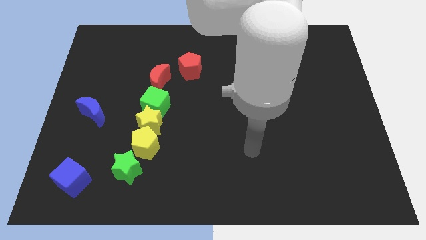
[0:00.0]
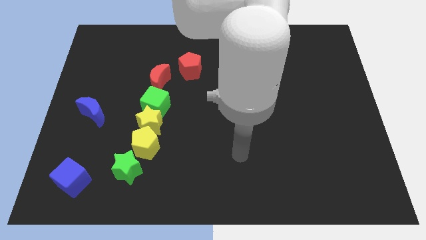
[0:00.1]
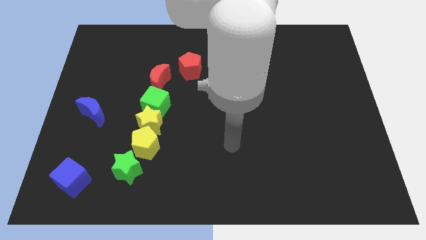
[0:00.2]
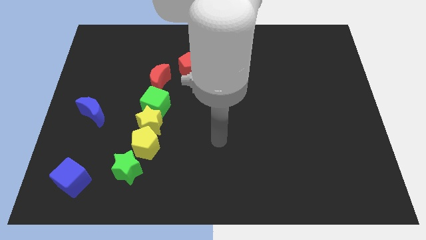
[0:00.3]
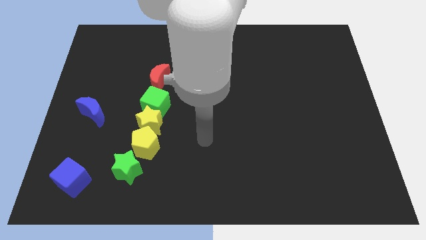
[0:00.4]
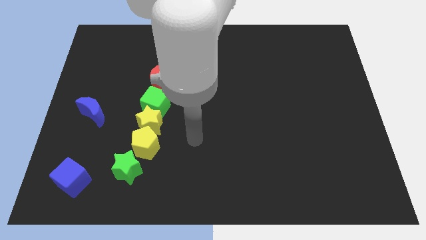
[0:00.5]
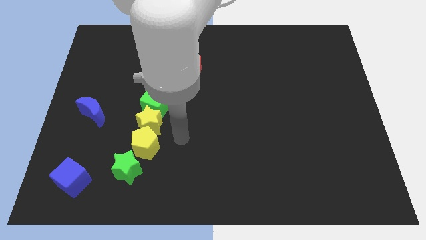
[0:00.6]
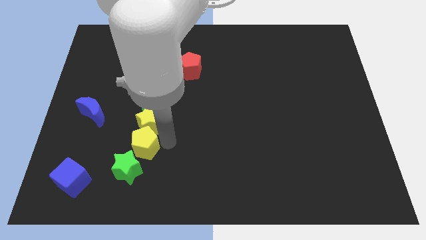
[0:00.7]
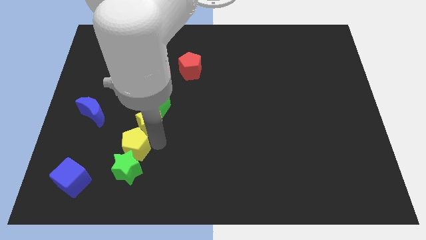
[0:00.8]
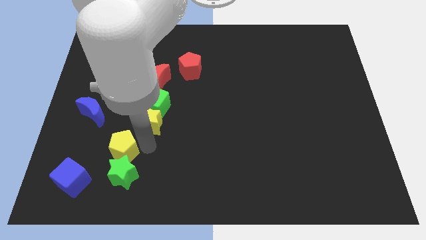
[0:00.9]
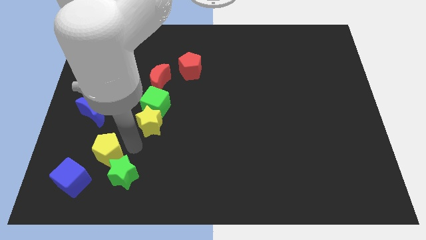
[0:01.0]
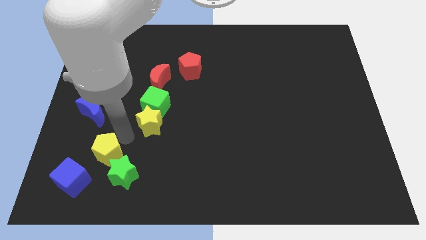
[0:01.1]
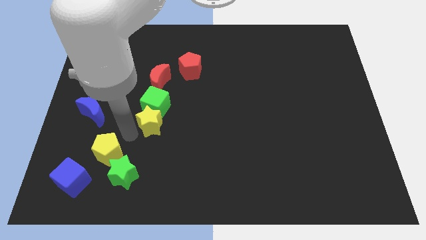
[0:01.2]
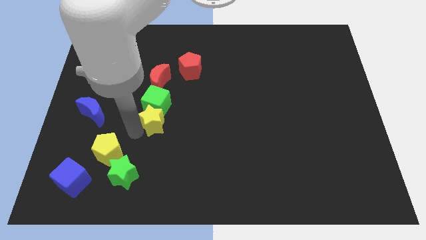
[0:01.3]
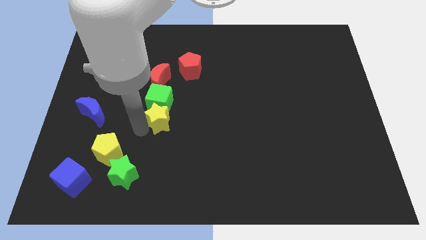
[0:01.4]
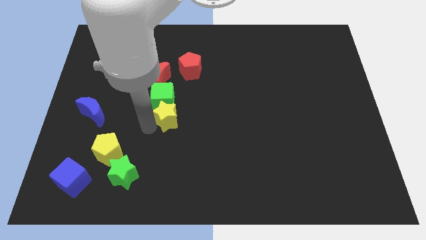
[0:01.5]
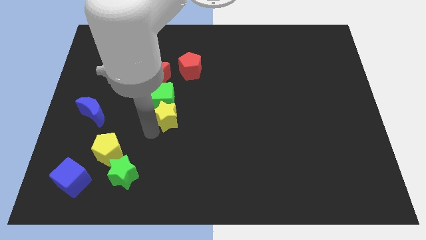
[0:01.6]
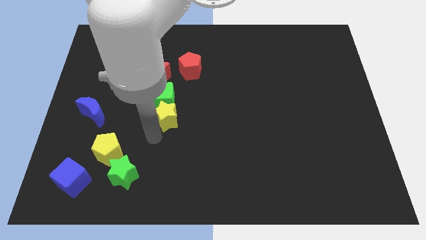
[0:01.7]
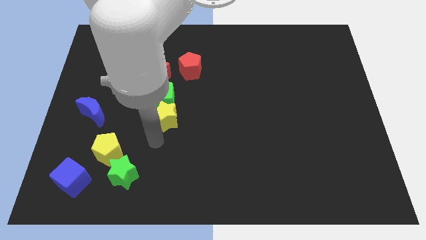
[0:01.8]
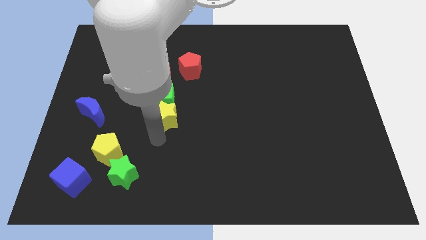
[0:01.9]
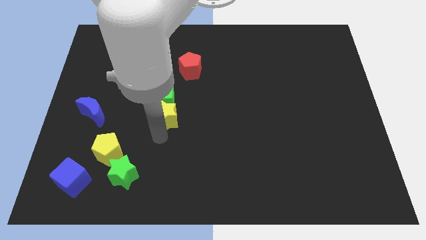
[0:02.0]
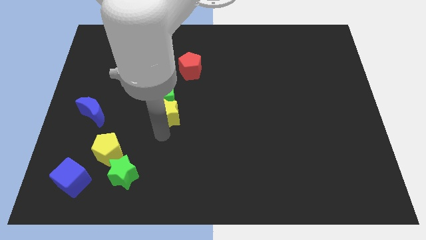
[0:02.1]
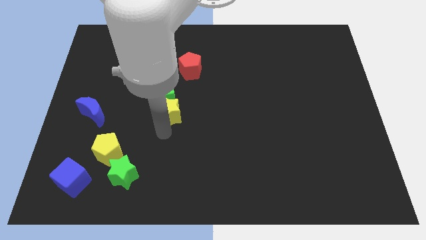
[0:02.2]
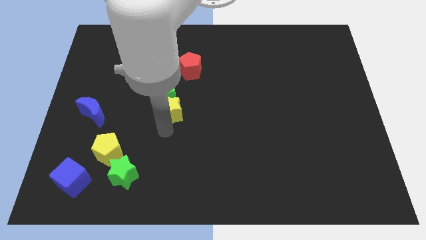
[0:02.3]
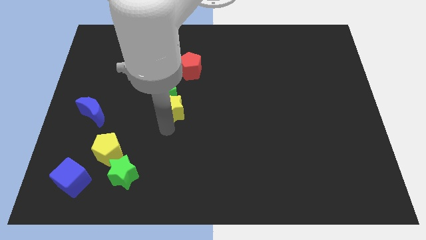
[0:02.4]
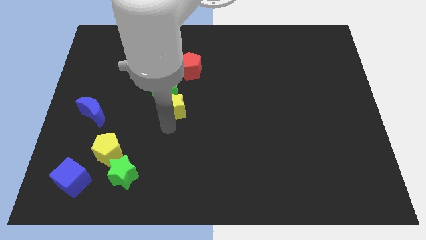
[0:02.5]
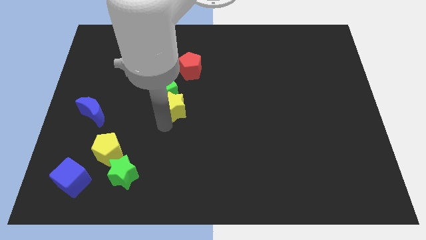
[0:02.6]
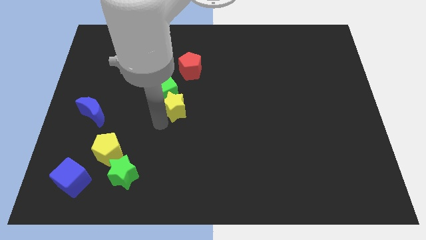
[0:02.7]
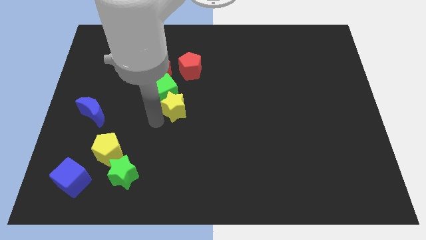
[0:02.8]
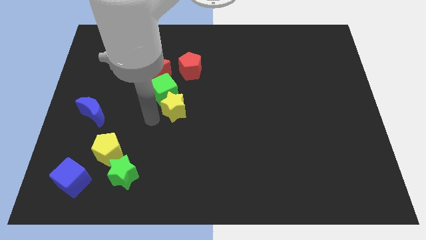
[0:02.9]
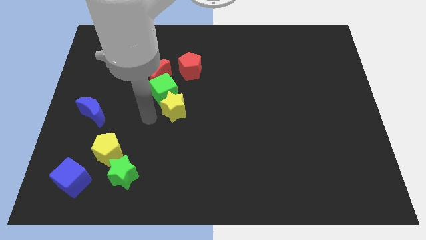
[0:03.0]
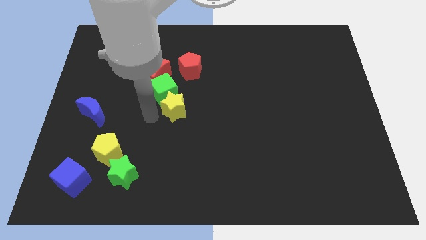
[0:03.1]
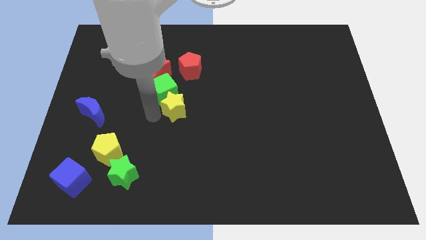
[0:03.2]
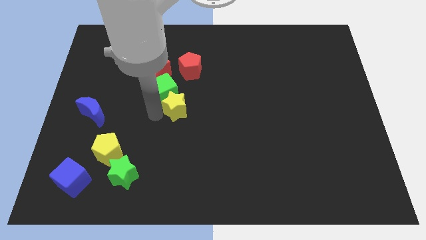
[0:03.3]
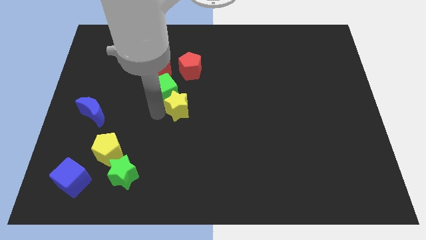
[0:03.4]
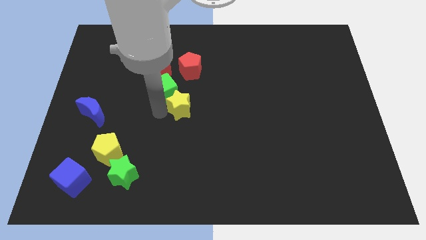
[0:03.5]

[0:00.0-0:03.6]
pull the yellow star apart from the green cube and yellow pentagon

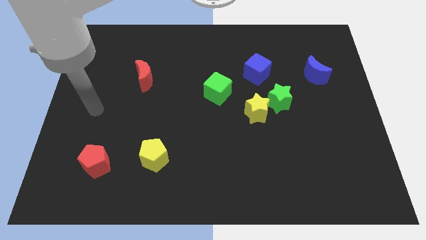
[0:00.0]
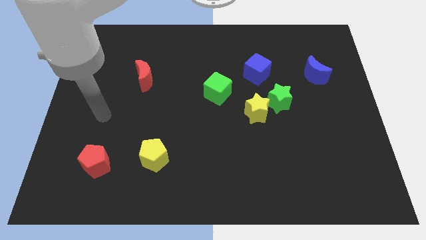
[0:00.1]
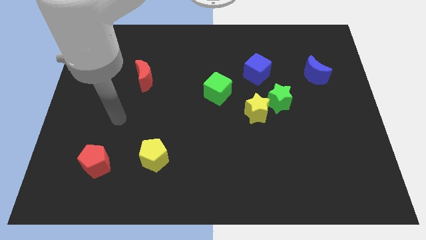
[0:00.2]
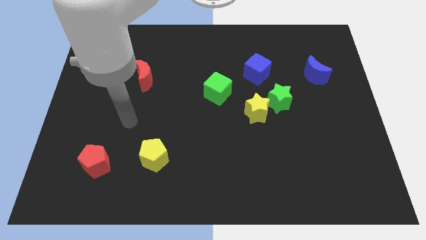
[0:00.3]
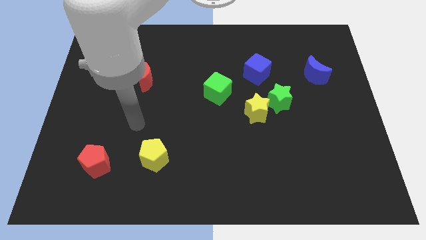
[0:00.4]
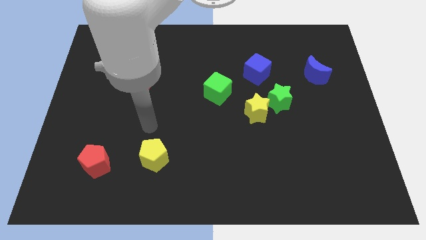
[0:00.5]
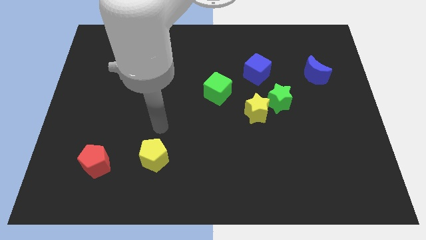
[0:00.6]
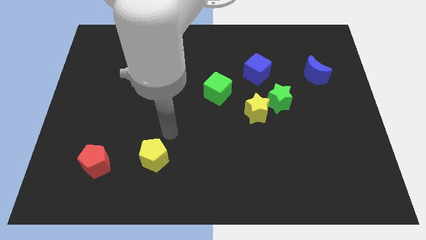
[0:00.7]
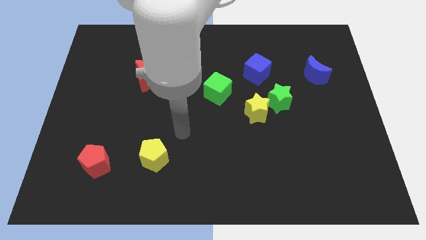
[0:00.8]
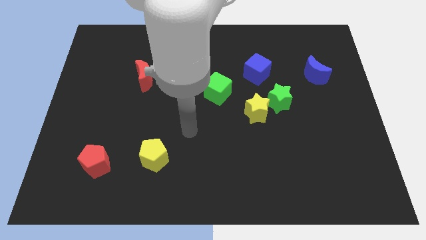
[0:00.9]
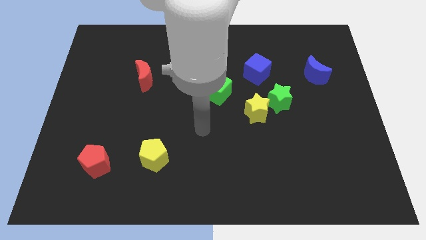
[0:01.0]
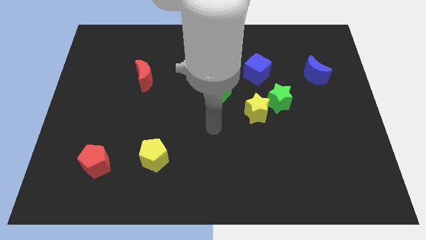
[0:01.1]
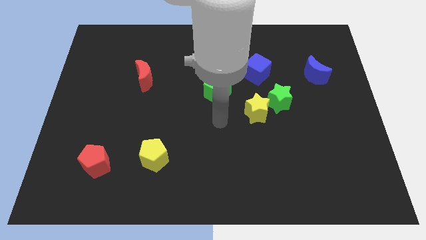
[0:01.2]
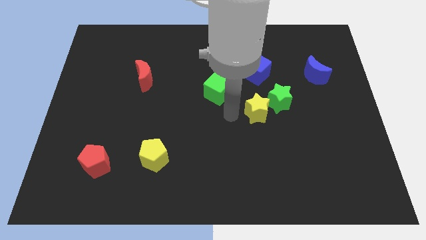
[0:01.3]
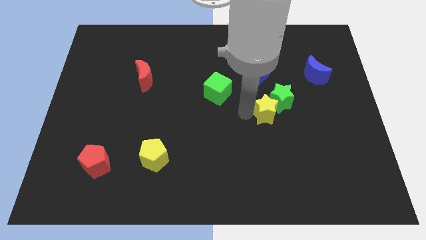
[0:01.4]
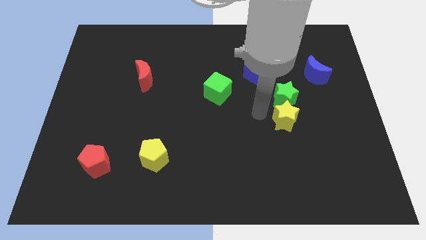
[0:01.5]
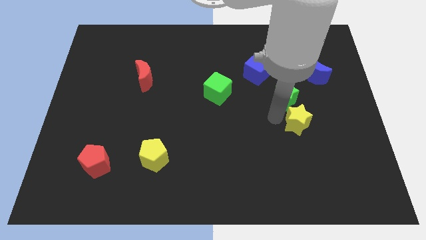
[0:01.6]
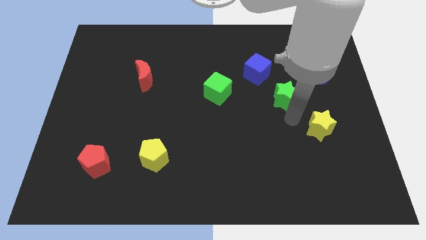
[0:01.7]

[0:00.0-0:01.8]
separate the green star from the yellow star

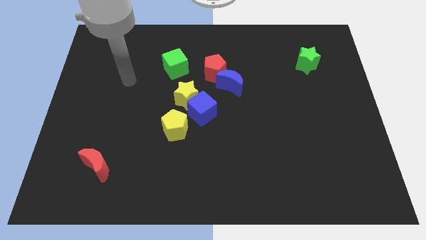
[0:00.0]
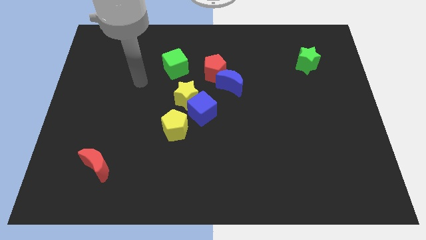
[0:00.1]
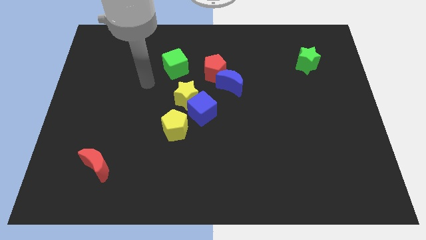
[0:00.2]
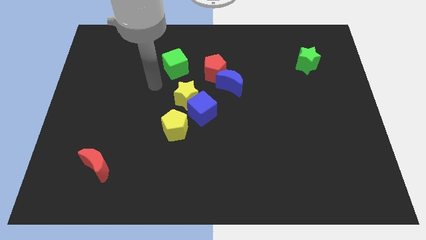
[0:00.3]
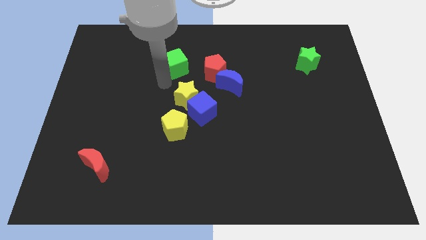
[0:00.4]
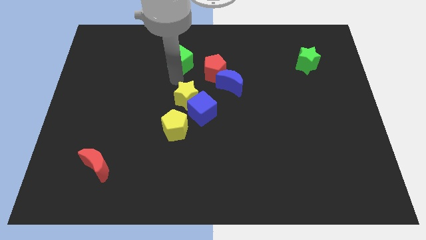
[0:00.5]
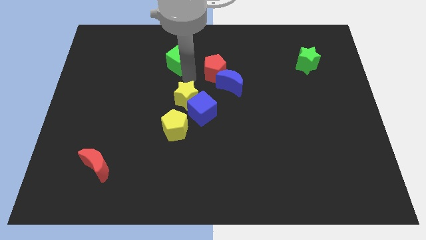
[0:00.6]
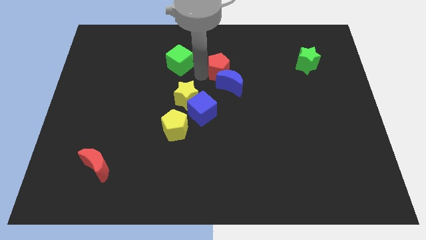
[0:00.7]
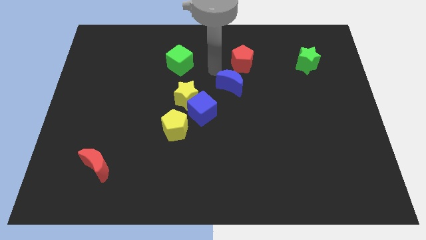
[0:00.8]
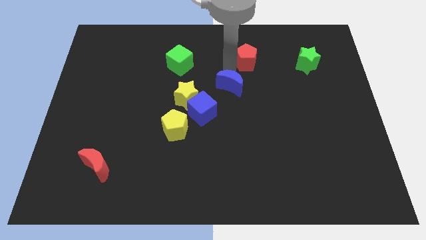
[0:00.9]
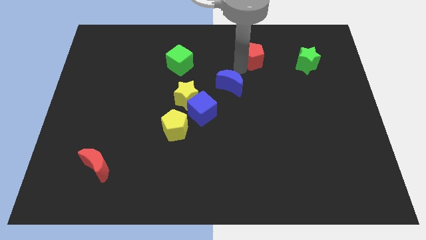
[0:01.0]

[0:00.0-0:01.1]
pull the blue moon apart from the red pentagon

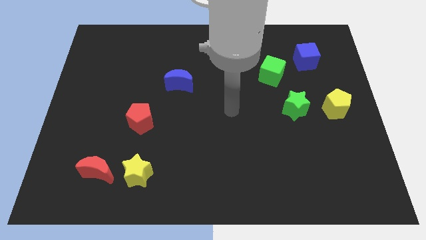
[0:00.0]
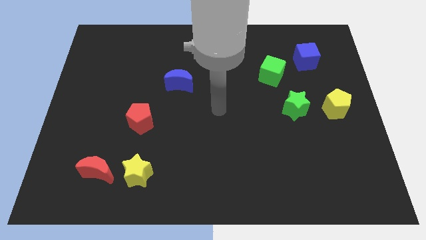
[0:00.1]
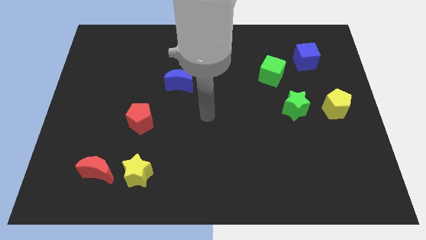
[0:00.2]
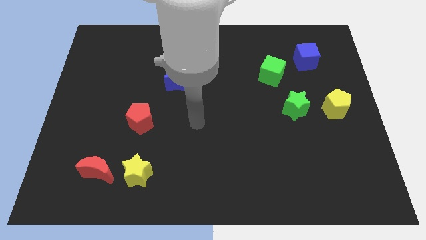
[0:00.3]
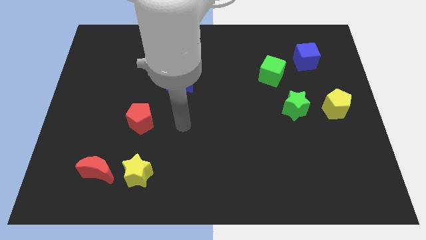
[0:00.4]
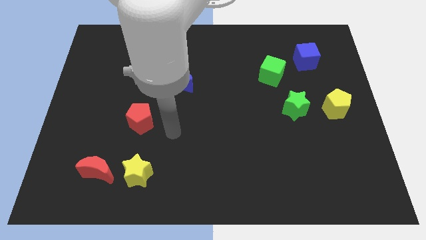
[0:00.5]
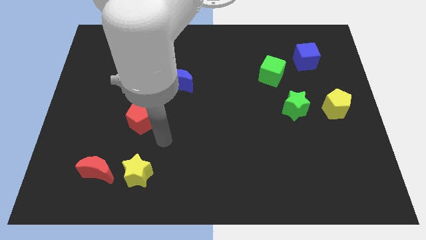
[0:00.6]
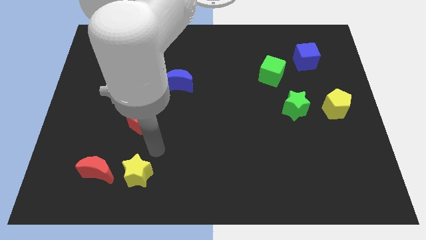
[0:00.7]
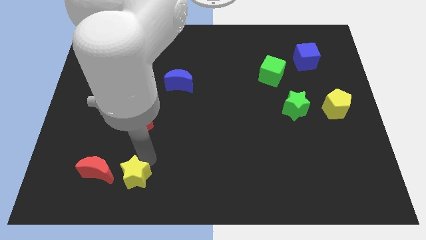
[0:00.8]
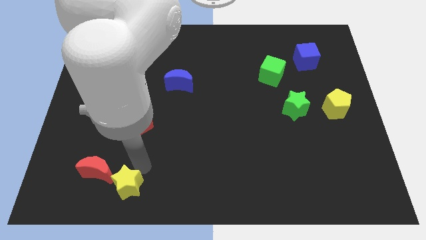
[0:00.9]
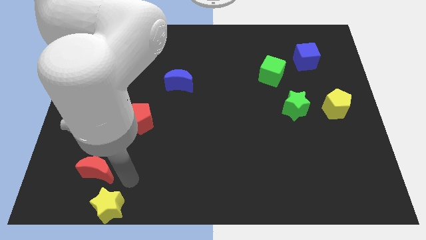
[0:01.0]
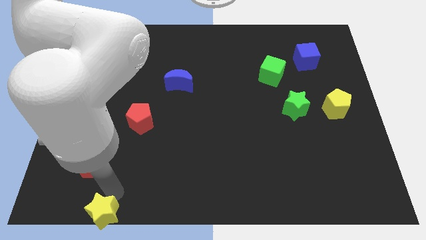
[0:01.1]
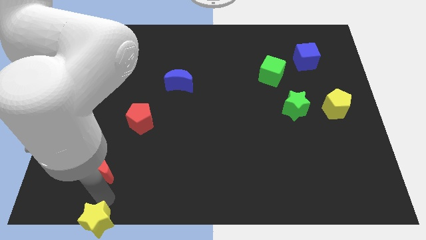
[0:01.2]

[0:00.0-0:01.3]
pull the red moon apart from the yellow star

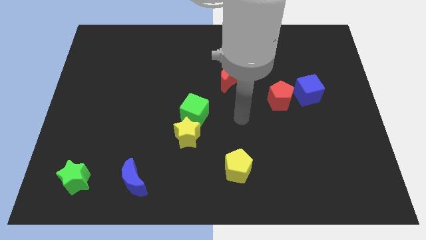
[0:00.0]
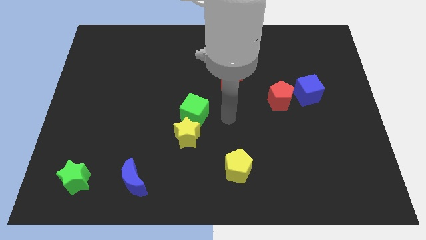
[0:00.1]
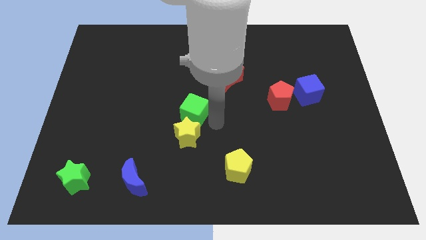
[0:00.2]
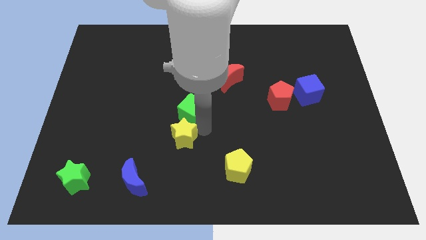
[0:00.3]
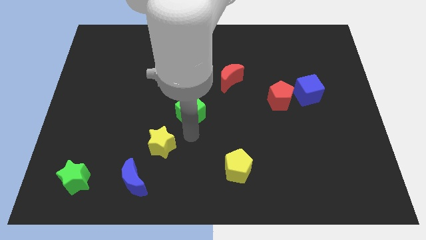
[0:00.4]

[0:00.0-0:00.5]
separate the green cube from the yellow star

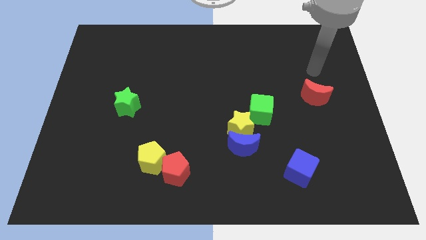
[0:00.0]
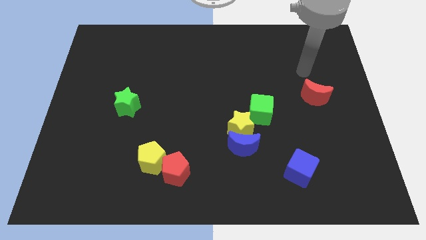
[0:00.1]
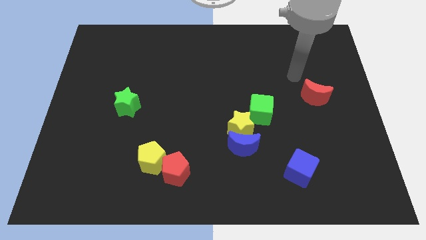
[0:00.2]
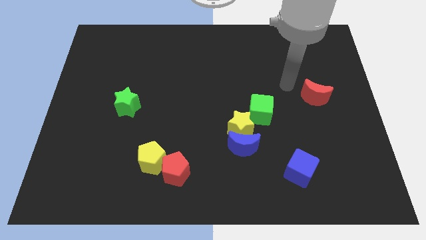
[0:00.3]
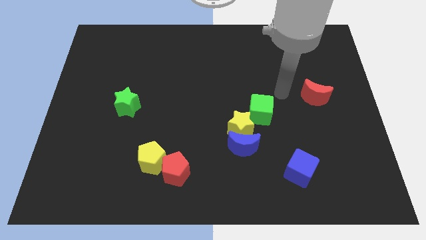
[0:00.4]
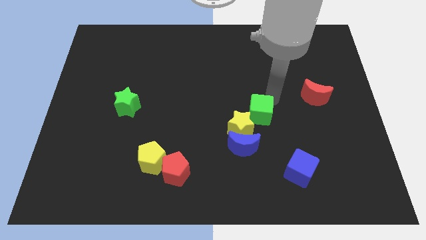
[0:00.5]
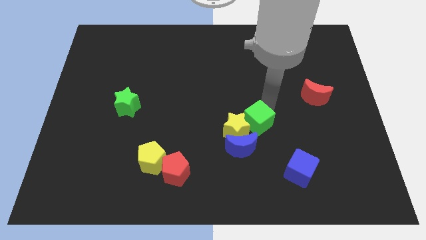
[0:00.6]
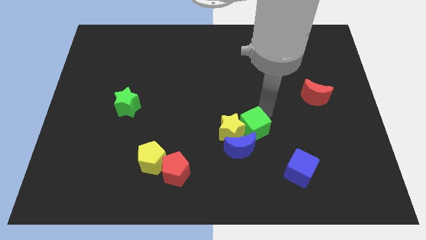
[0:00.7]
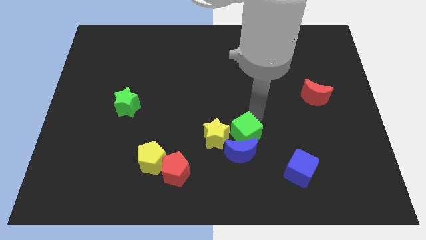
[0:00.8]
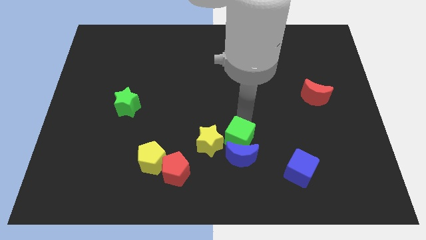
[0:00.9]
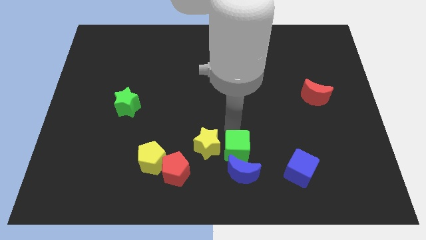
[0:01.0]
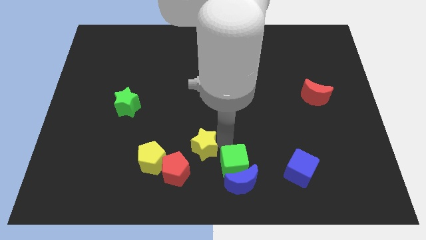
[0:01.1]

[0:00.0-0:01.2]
move the blue moon away from the yellow star
